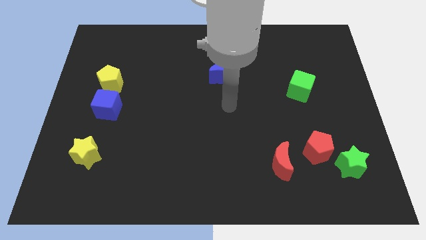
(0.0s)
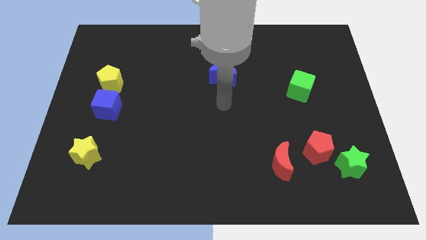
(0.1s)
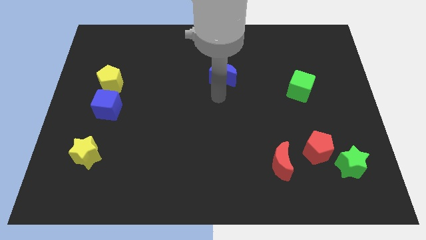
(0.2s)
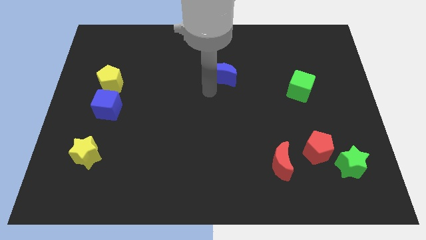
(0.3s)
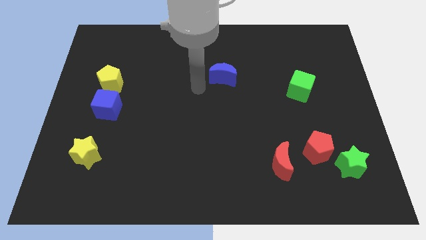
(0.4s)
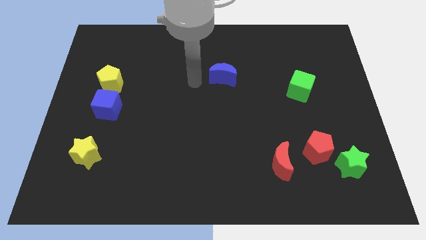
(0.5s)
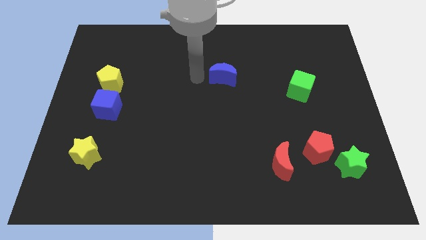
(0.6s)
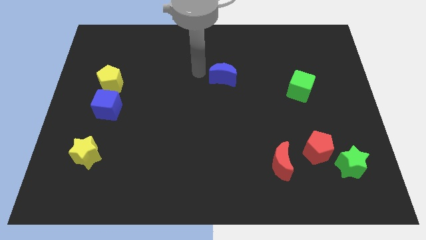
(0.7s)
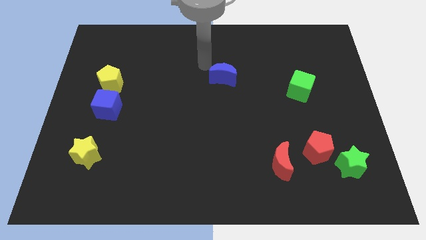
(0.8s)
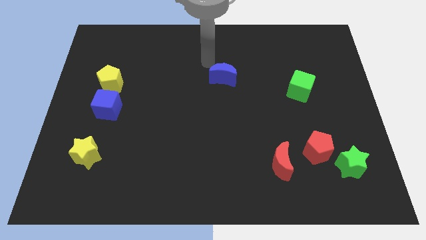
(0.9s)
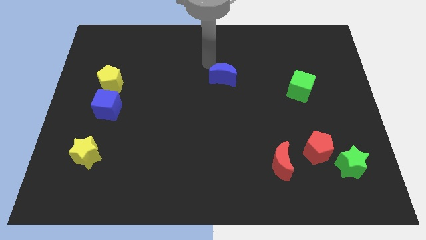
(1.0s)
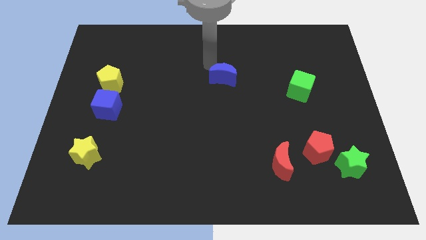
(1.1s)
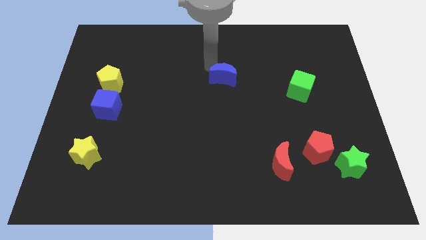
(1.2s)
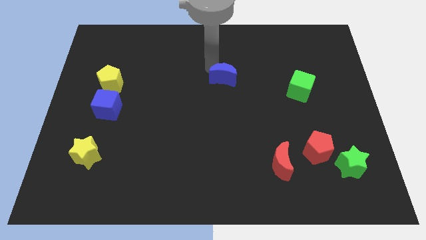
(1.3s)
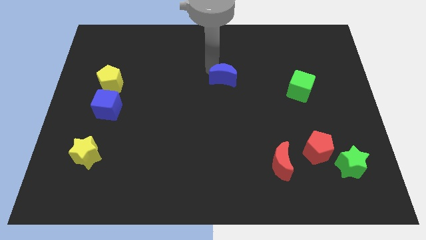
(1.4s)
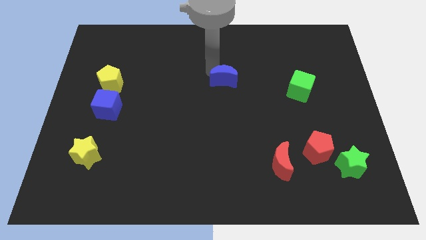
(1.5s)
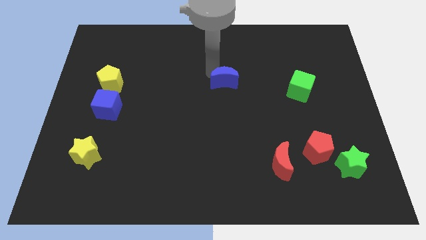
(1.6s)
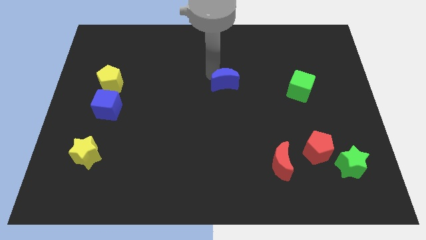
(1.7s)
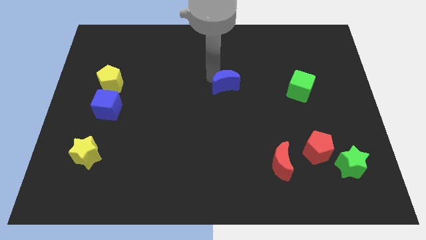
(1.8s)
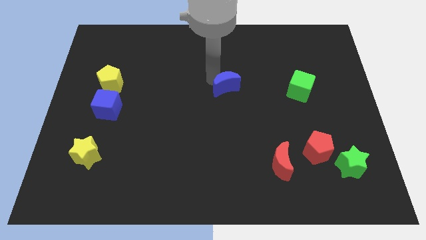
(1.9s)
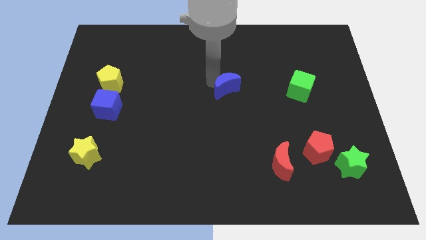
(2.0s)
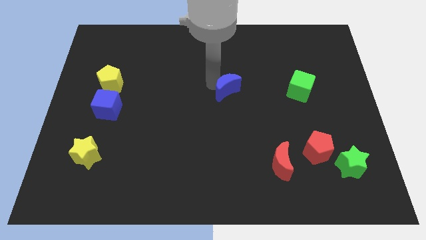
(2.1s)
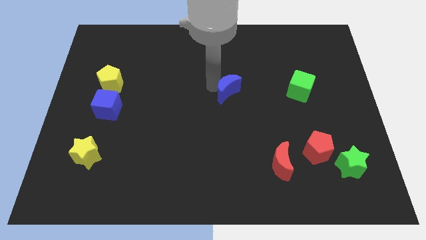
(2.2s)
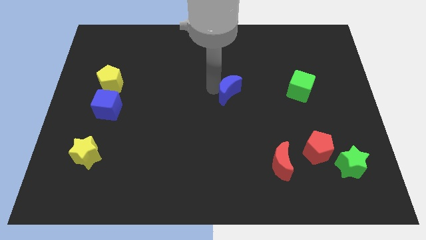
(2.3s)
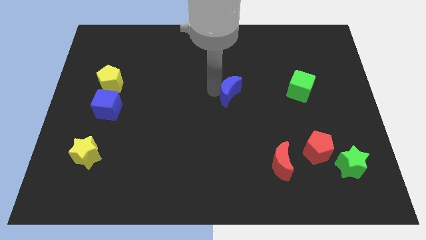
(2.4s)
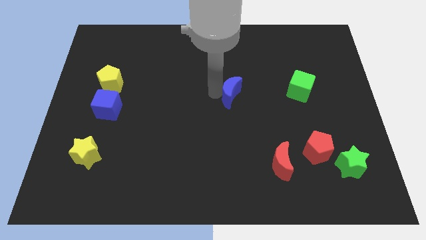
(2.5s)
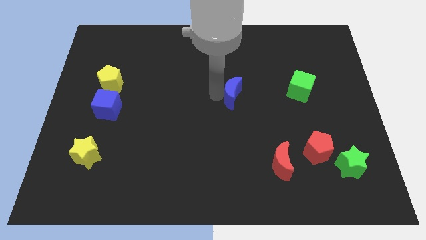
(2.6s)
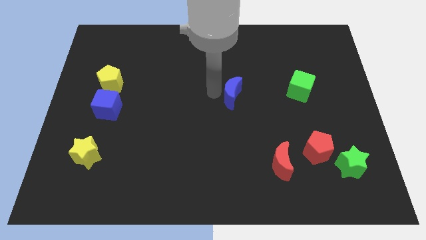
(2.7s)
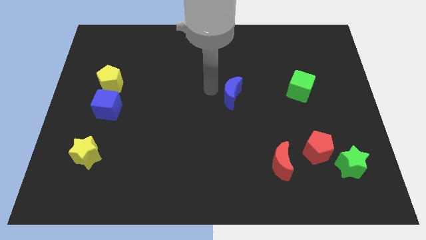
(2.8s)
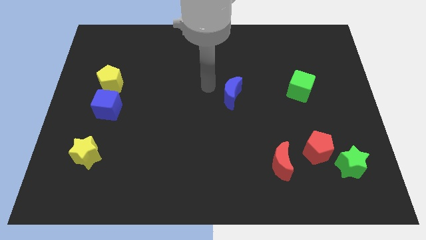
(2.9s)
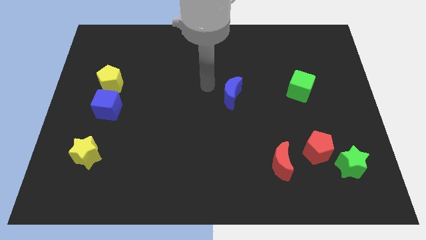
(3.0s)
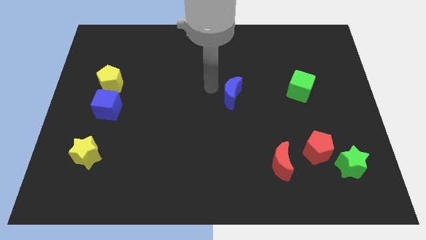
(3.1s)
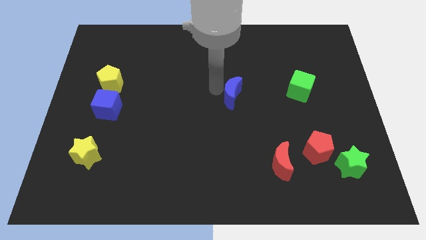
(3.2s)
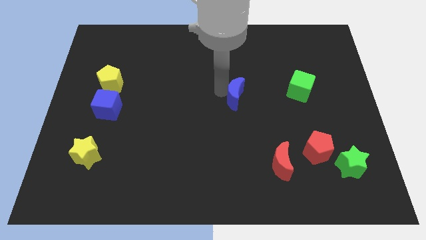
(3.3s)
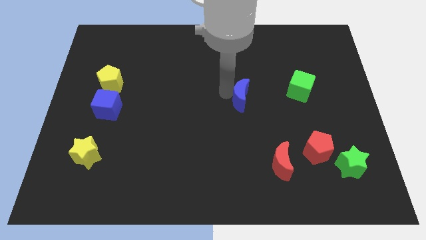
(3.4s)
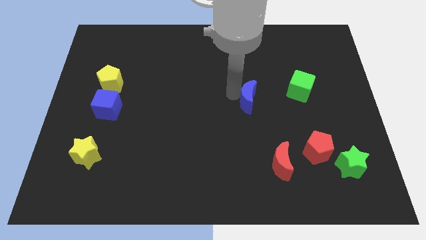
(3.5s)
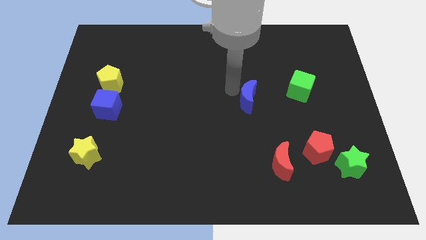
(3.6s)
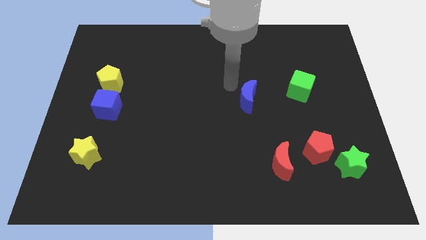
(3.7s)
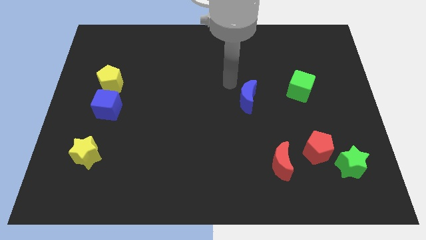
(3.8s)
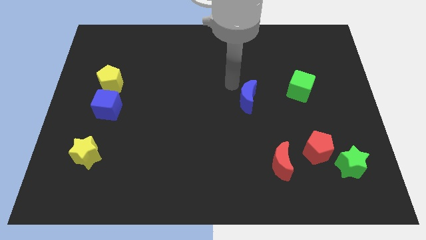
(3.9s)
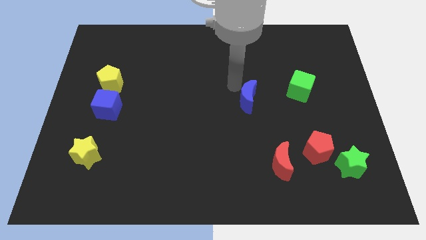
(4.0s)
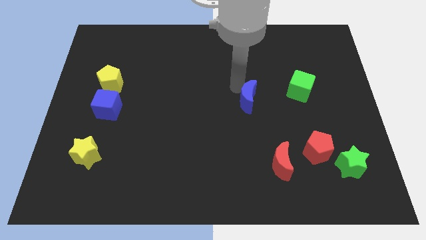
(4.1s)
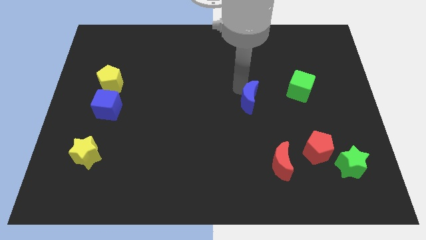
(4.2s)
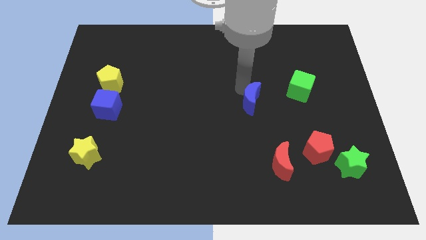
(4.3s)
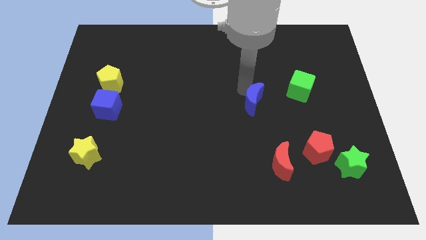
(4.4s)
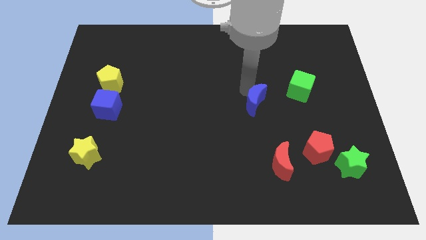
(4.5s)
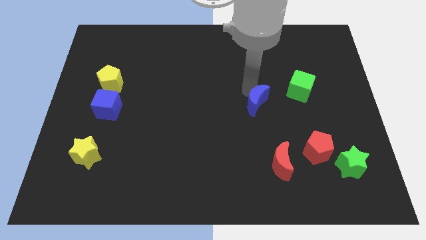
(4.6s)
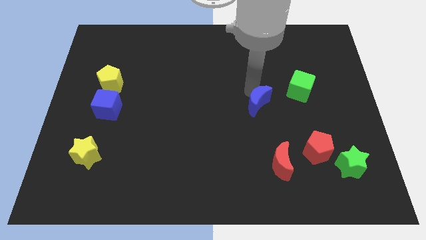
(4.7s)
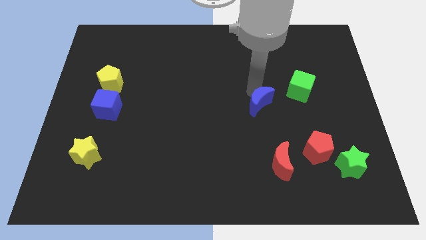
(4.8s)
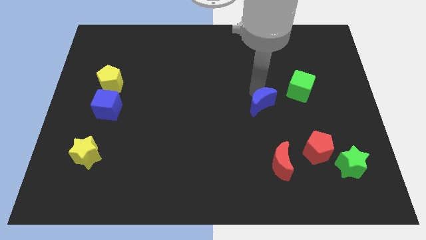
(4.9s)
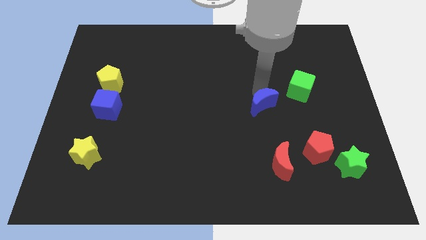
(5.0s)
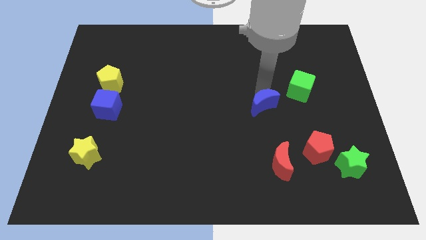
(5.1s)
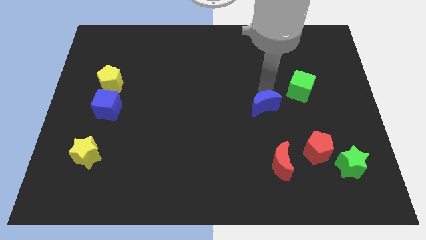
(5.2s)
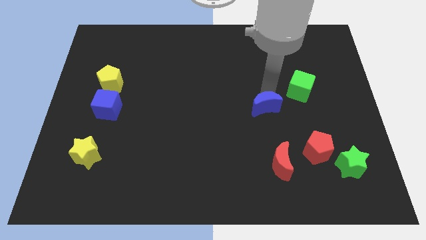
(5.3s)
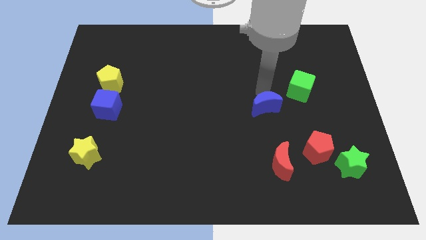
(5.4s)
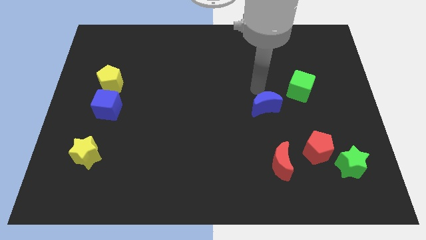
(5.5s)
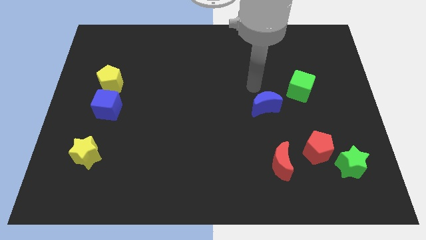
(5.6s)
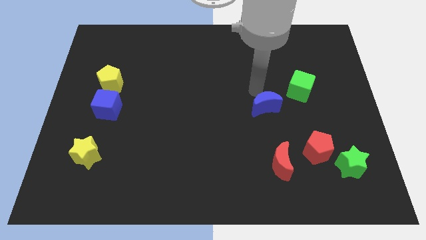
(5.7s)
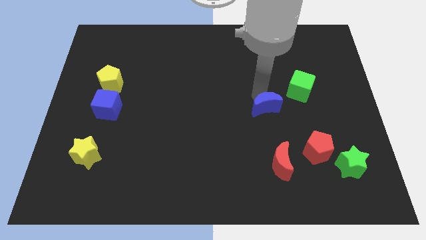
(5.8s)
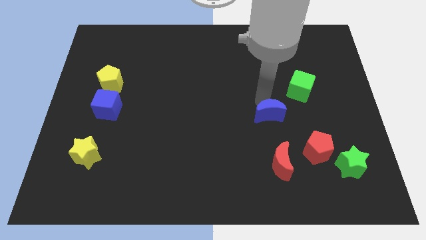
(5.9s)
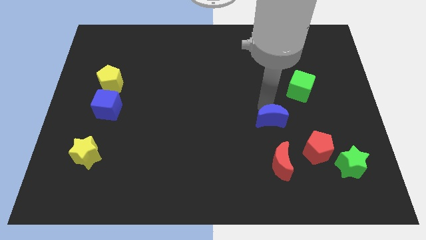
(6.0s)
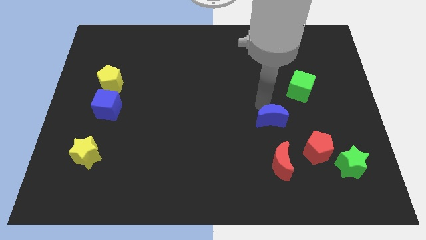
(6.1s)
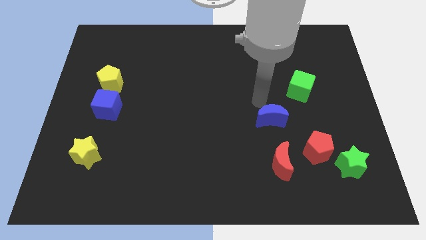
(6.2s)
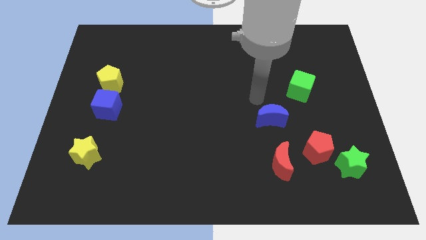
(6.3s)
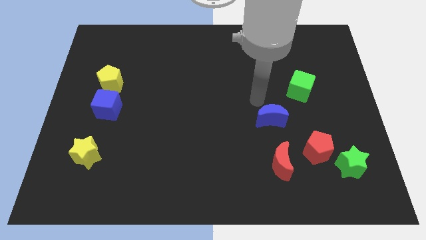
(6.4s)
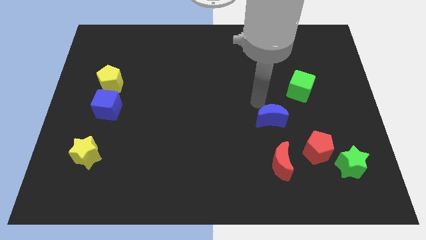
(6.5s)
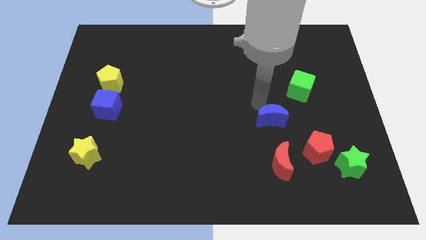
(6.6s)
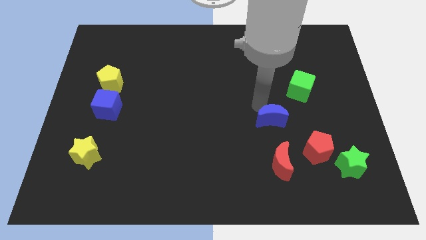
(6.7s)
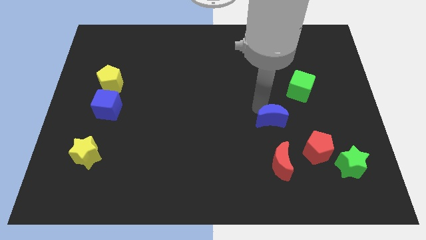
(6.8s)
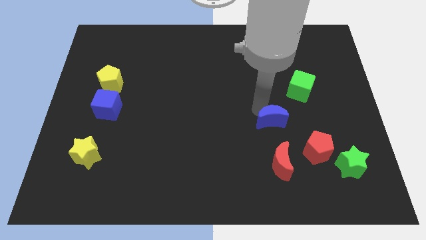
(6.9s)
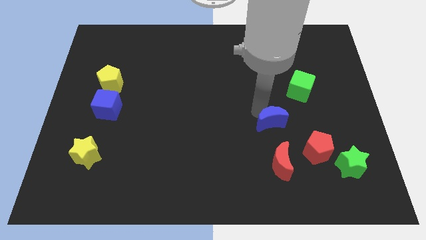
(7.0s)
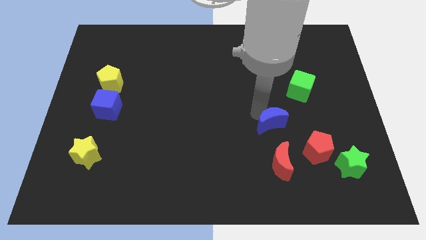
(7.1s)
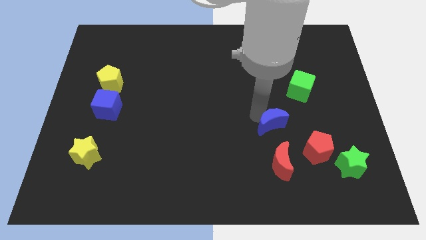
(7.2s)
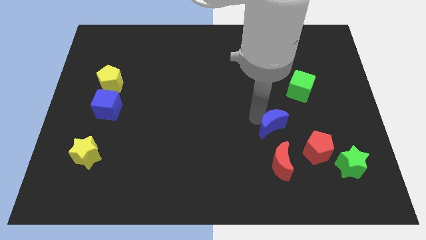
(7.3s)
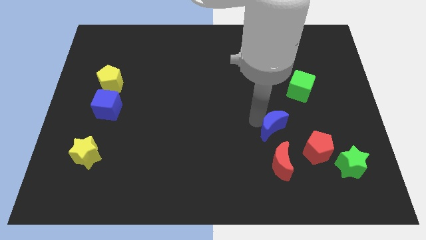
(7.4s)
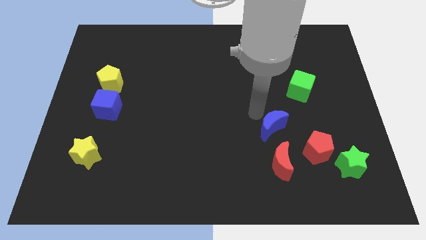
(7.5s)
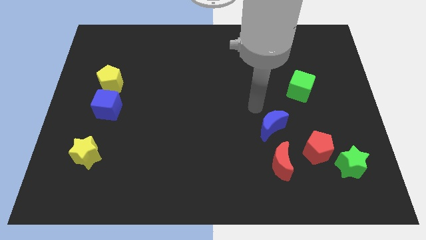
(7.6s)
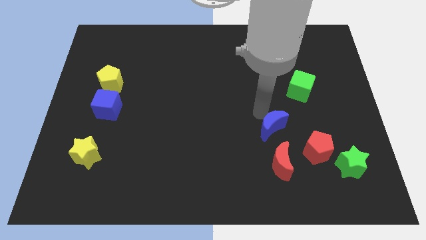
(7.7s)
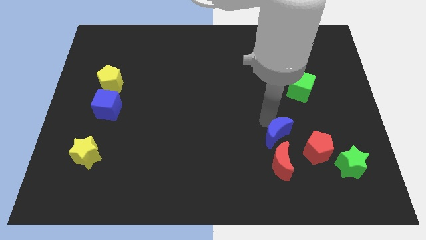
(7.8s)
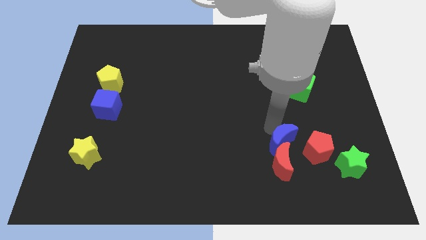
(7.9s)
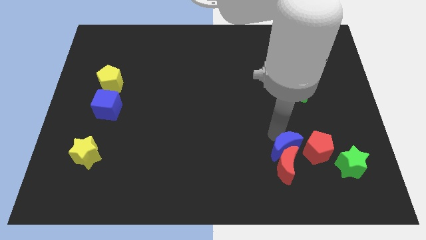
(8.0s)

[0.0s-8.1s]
move the blue moon left of the green star
